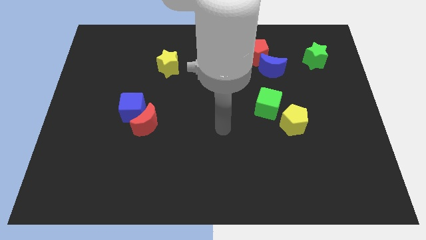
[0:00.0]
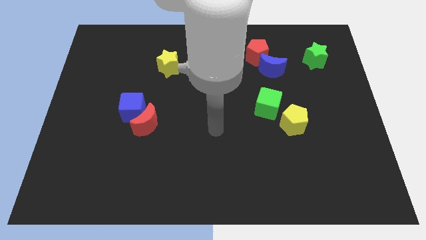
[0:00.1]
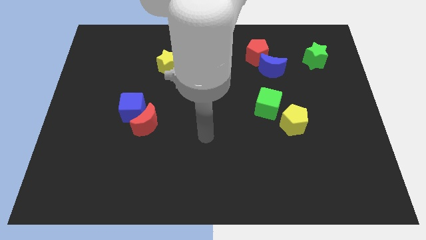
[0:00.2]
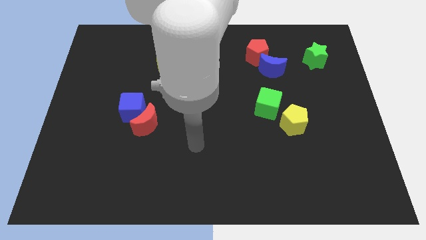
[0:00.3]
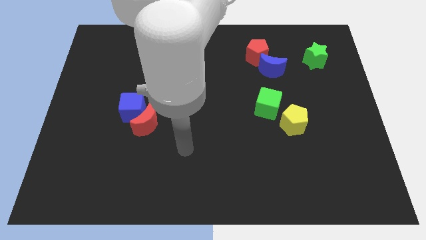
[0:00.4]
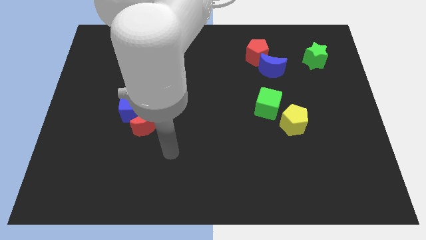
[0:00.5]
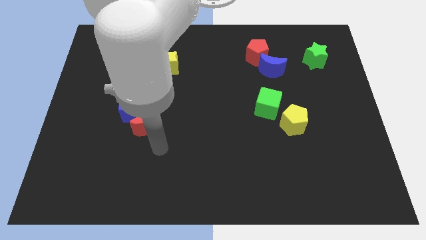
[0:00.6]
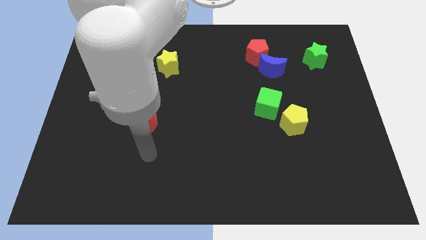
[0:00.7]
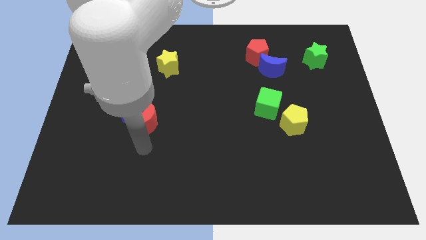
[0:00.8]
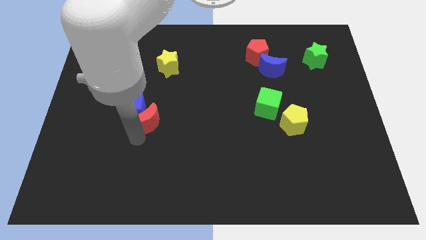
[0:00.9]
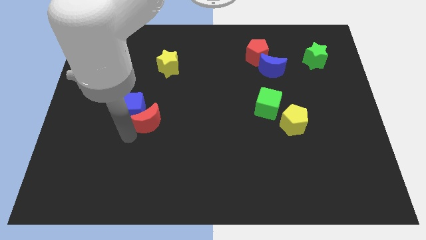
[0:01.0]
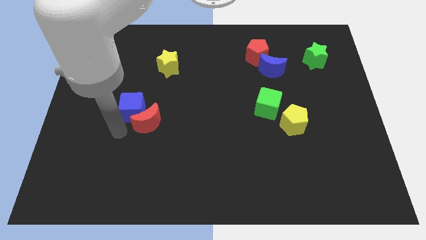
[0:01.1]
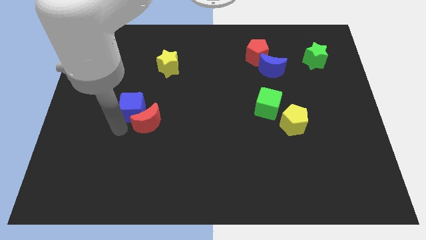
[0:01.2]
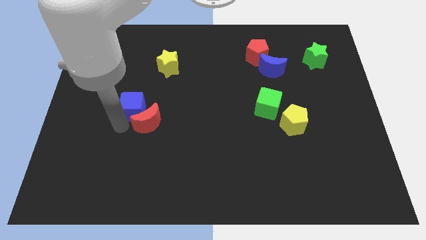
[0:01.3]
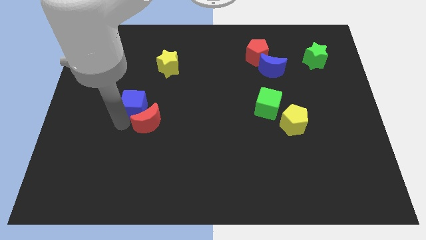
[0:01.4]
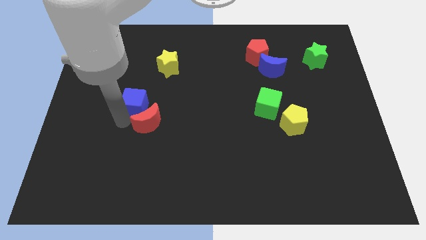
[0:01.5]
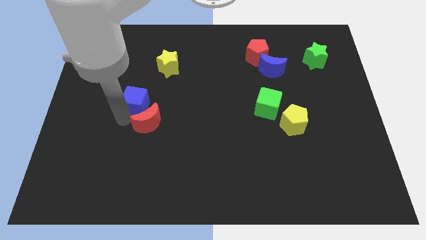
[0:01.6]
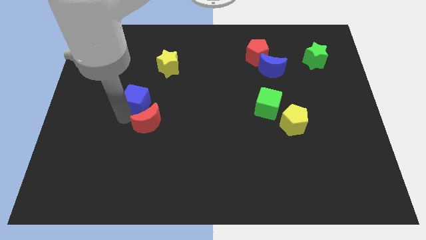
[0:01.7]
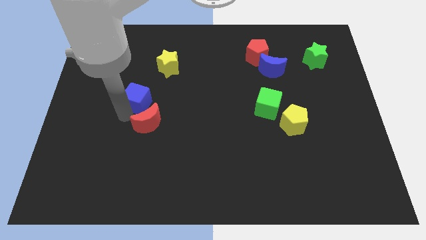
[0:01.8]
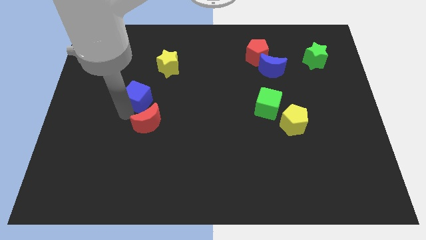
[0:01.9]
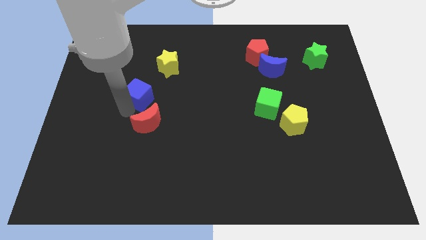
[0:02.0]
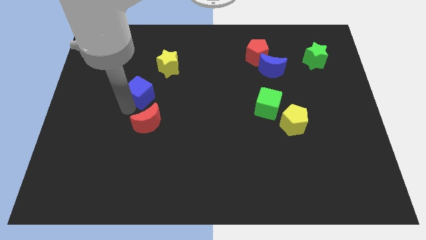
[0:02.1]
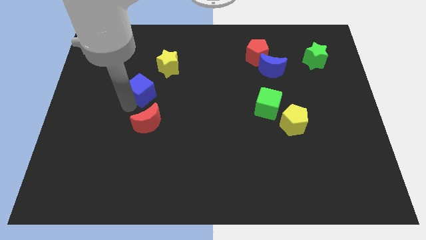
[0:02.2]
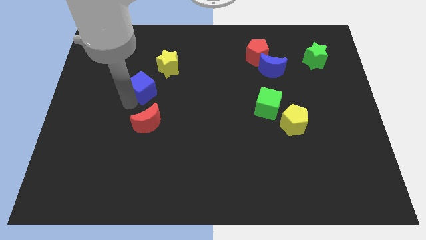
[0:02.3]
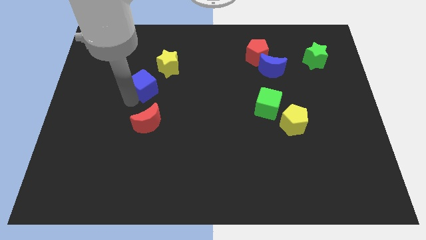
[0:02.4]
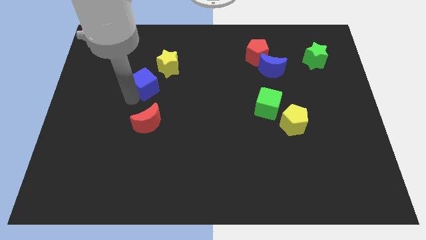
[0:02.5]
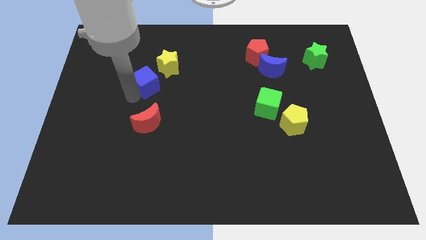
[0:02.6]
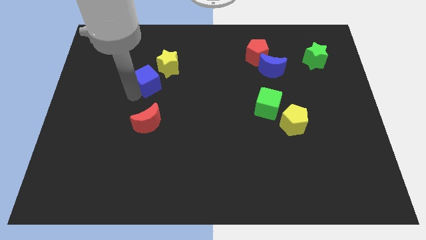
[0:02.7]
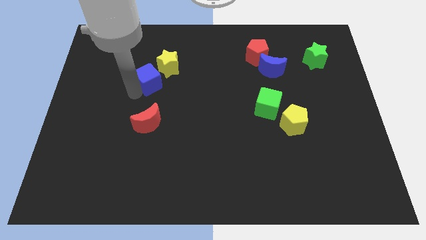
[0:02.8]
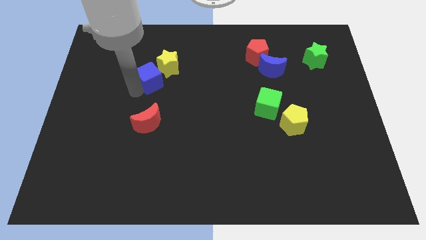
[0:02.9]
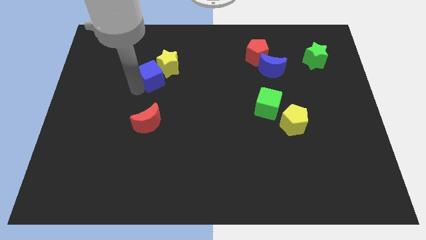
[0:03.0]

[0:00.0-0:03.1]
push the blue cube towards the yellow star

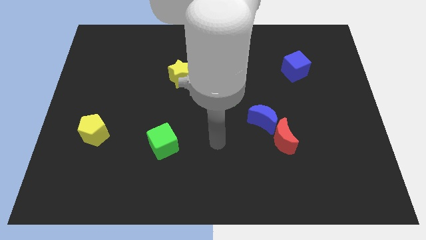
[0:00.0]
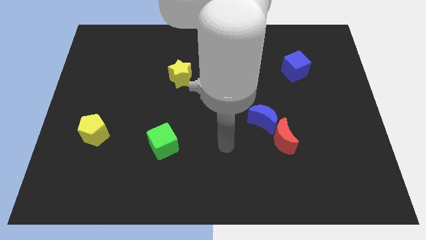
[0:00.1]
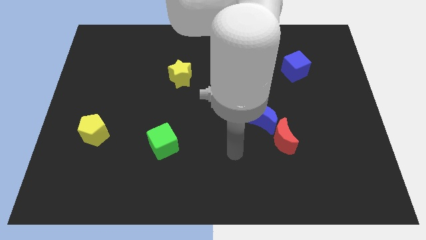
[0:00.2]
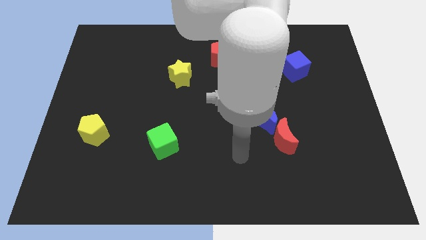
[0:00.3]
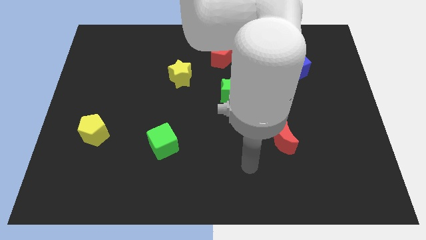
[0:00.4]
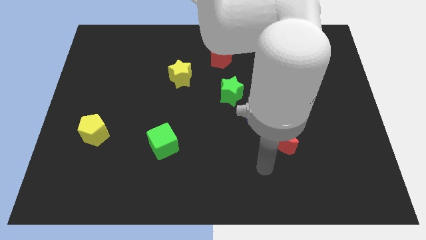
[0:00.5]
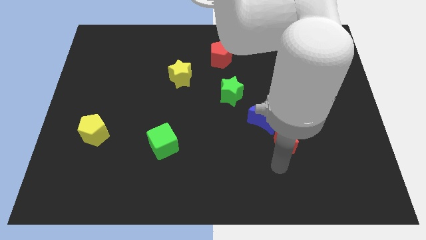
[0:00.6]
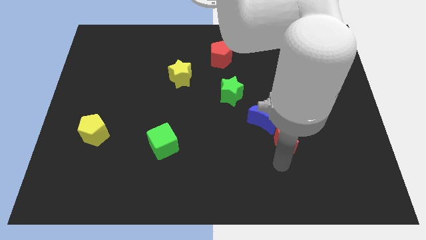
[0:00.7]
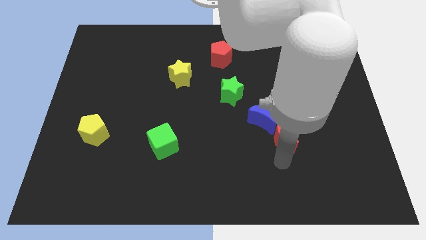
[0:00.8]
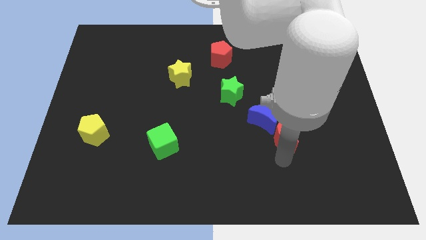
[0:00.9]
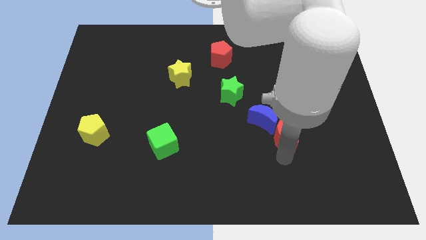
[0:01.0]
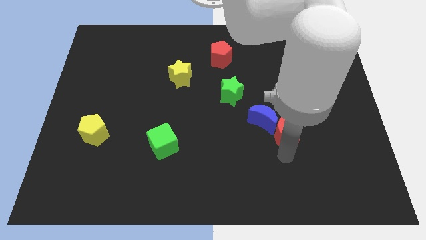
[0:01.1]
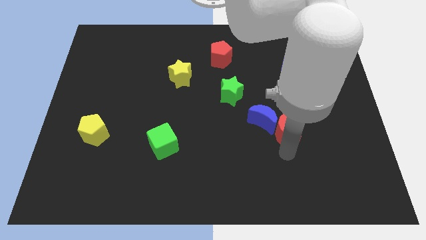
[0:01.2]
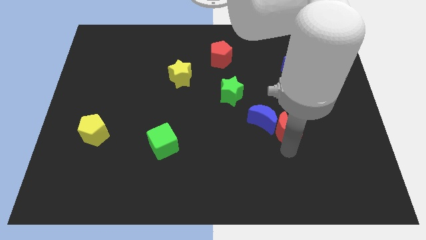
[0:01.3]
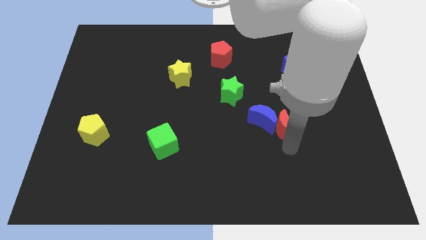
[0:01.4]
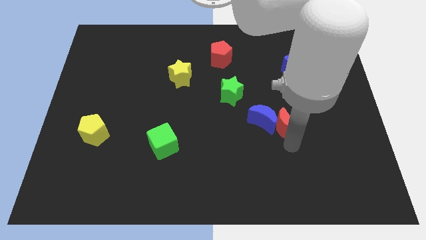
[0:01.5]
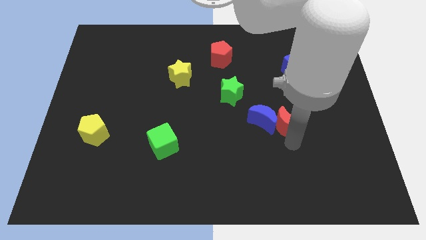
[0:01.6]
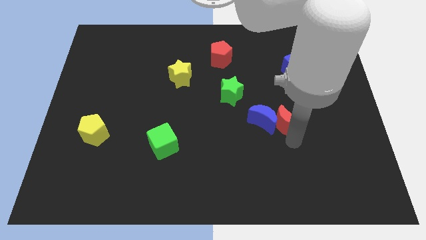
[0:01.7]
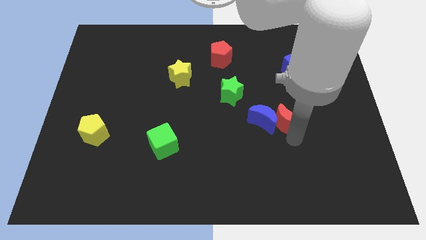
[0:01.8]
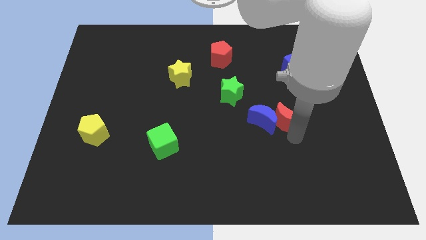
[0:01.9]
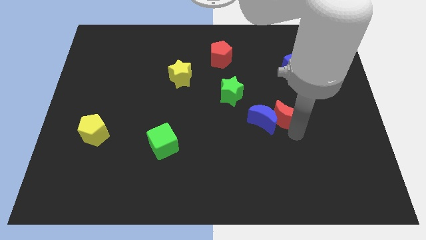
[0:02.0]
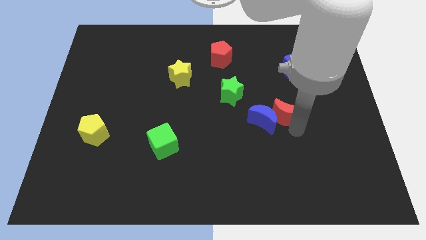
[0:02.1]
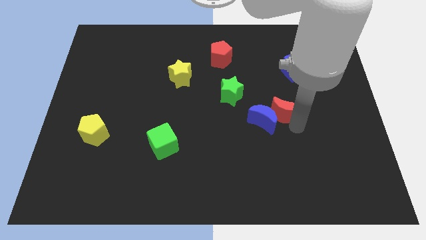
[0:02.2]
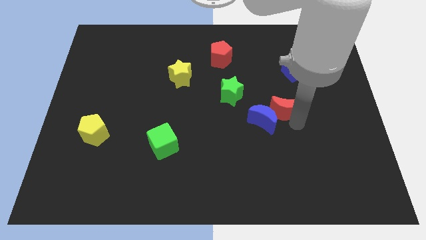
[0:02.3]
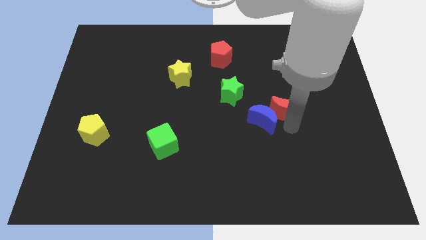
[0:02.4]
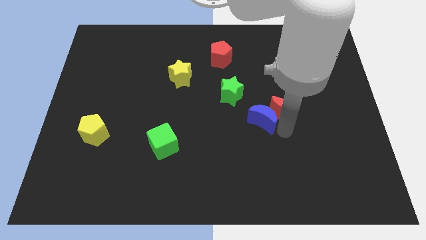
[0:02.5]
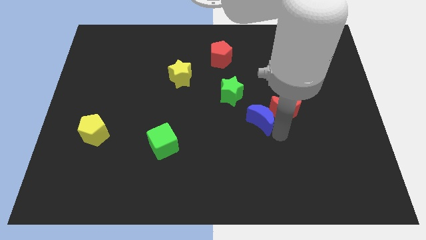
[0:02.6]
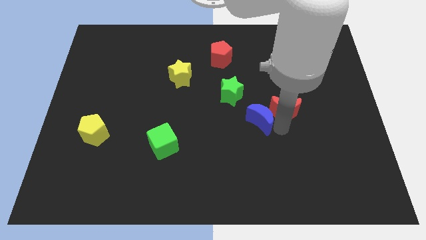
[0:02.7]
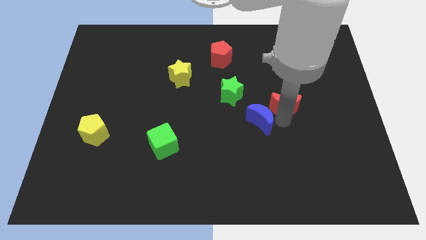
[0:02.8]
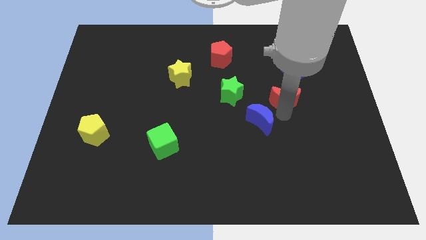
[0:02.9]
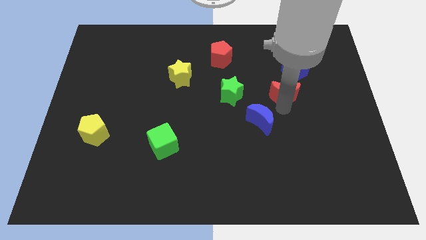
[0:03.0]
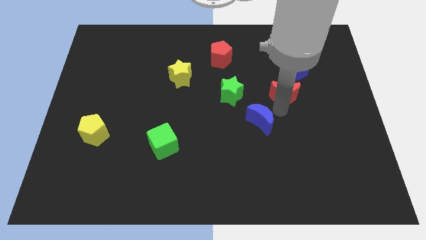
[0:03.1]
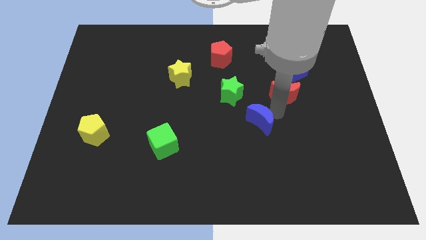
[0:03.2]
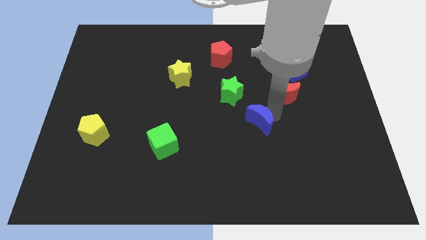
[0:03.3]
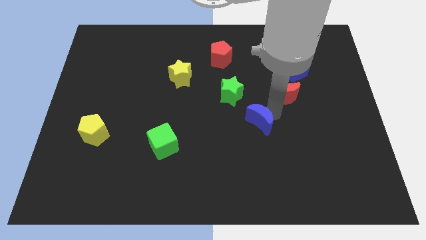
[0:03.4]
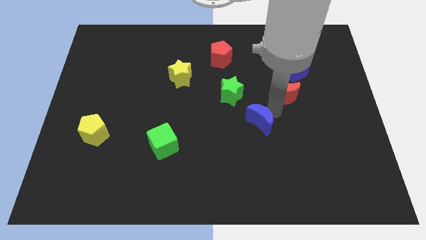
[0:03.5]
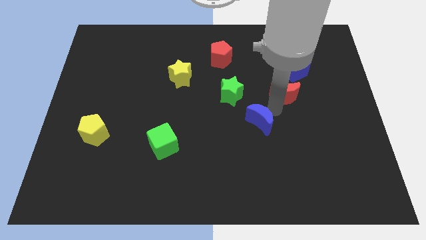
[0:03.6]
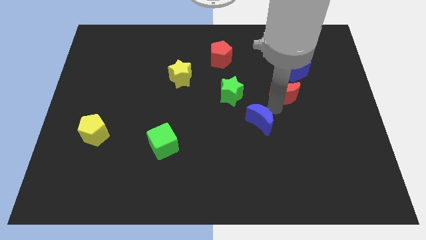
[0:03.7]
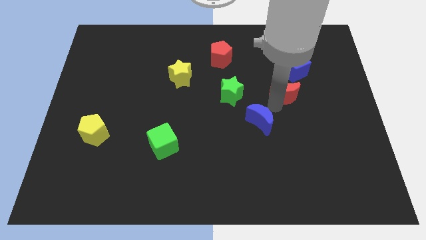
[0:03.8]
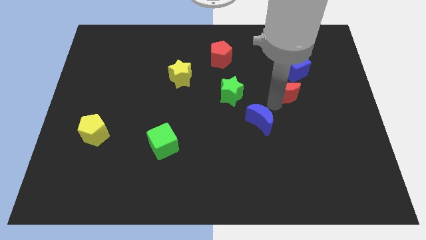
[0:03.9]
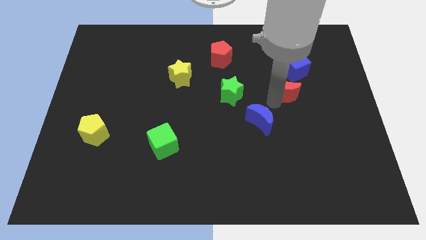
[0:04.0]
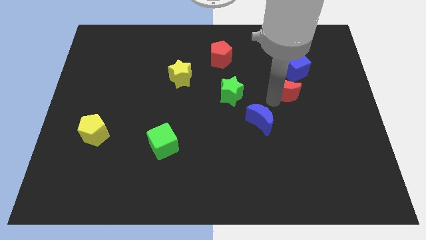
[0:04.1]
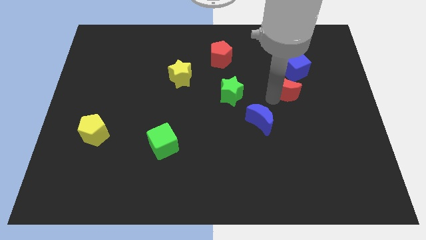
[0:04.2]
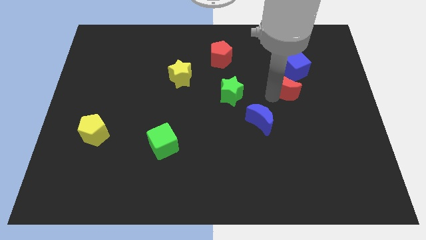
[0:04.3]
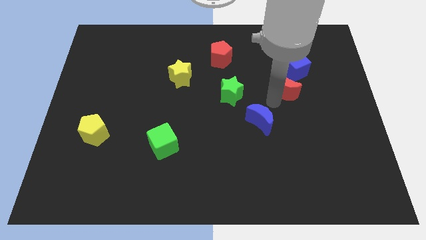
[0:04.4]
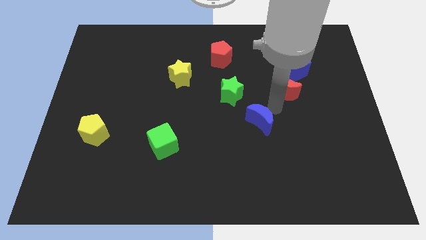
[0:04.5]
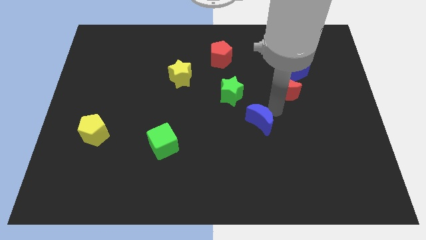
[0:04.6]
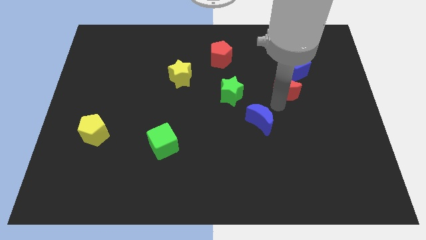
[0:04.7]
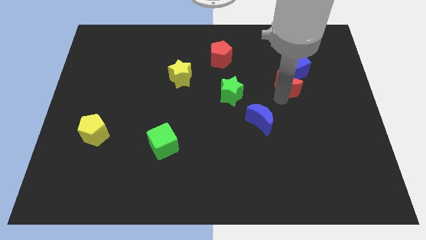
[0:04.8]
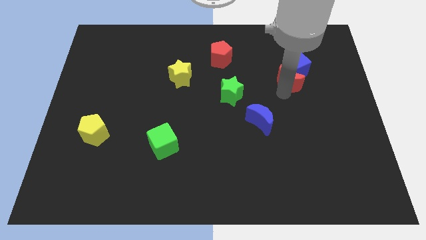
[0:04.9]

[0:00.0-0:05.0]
slide the red moon close to the blue cube
